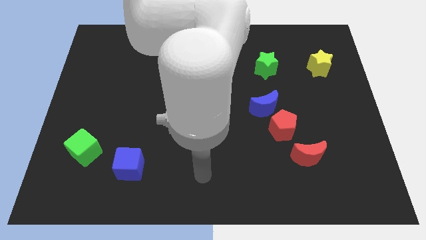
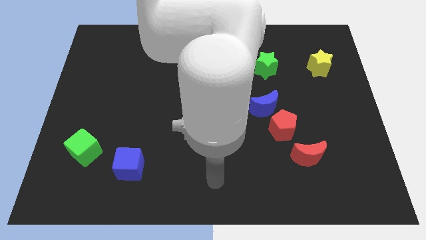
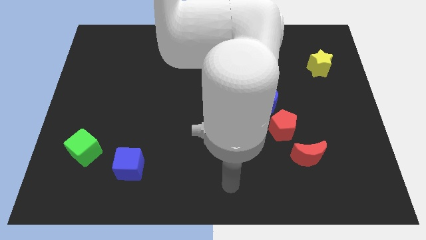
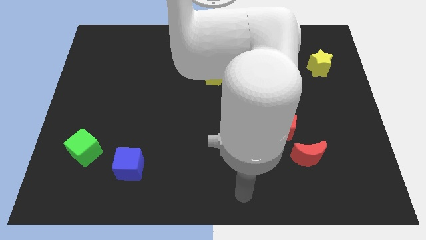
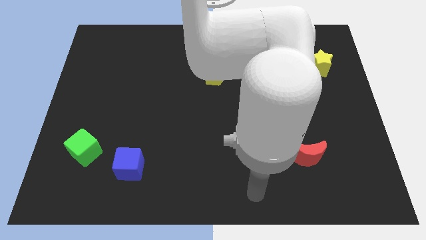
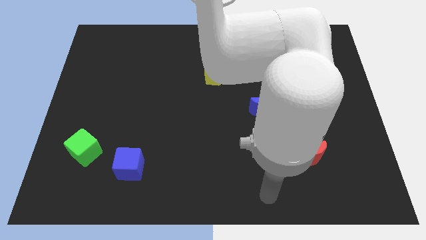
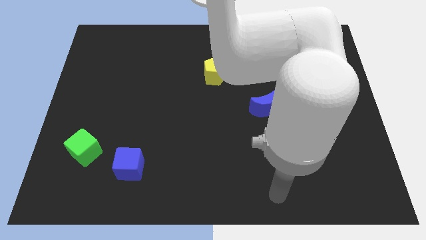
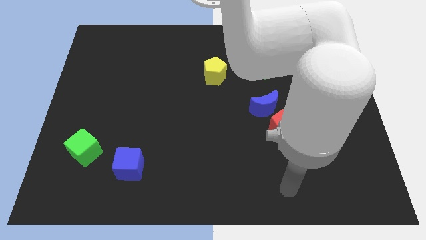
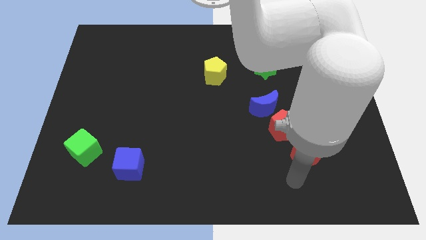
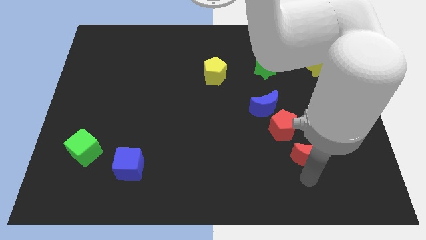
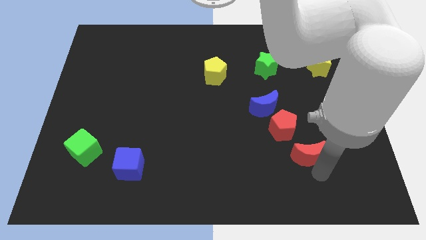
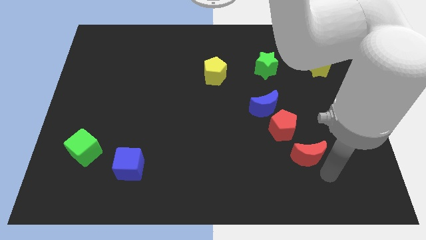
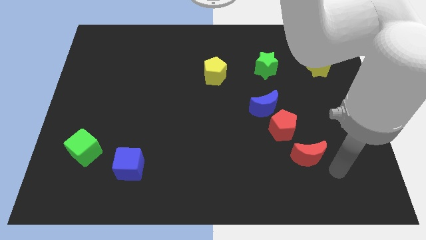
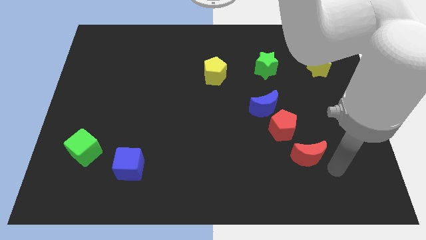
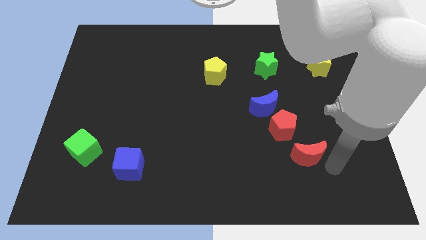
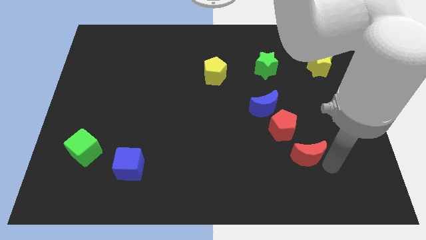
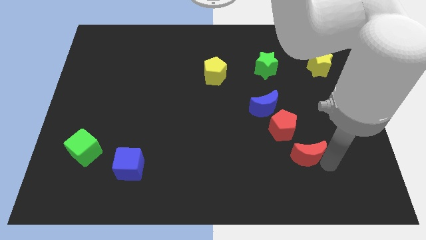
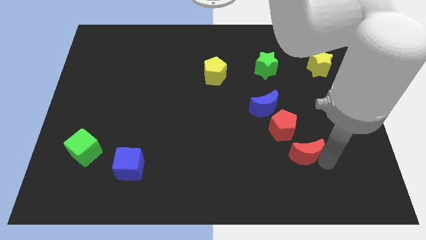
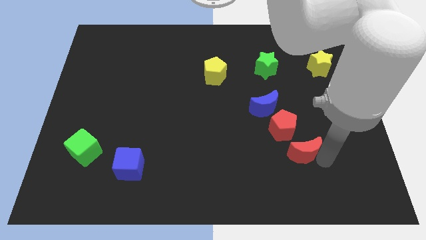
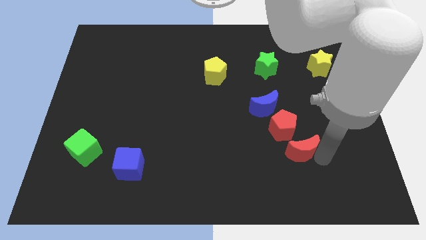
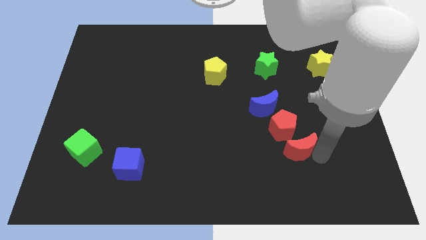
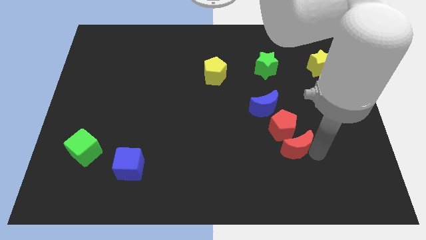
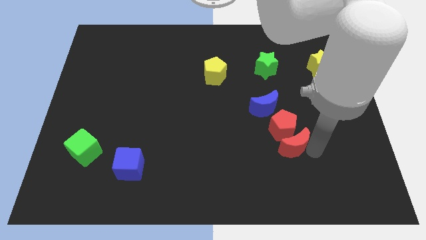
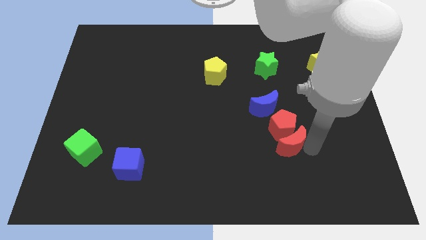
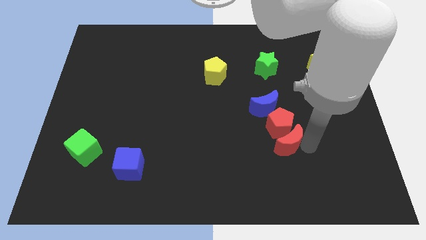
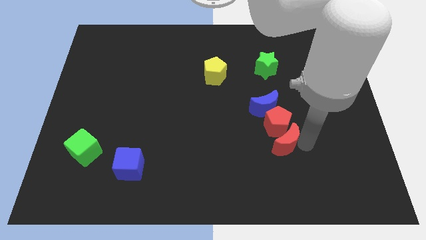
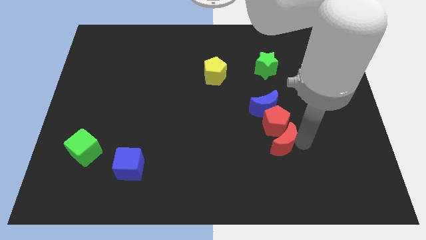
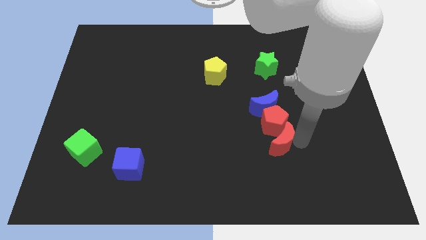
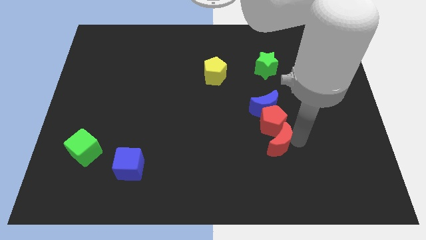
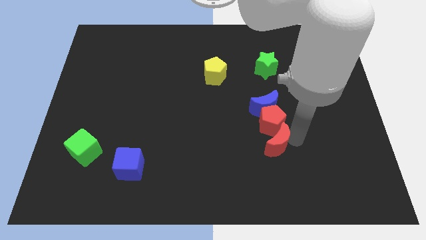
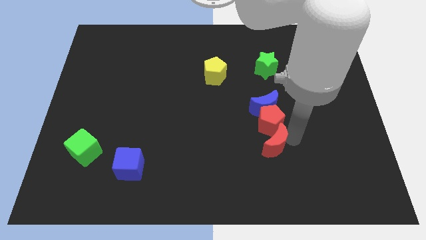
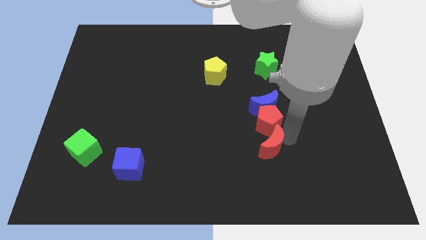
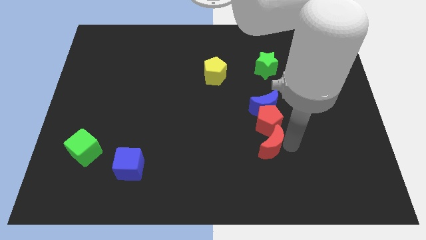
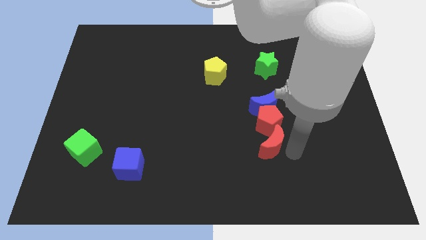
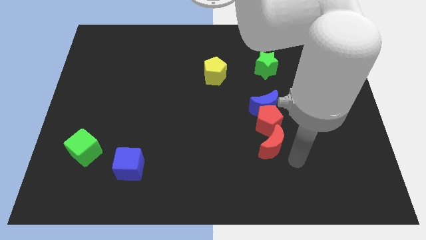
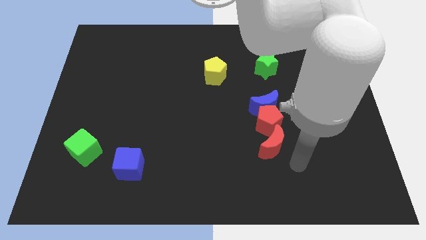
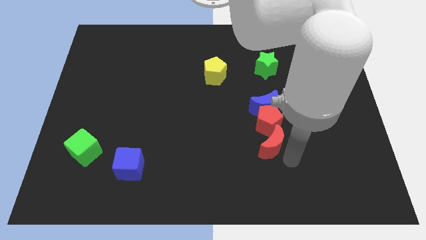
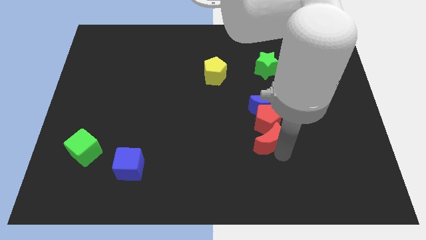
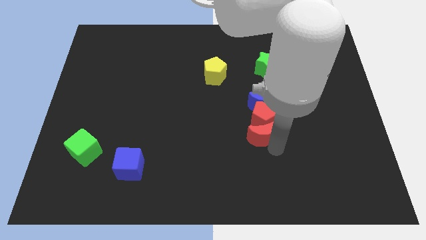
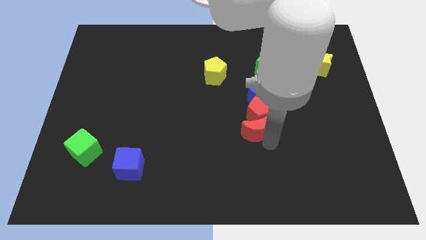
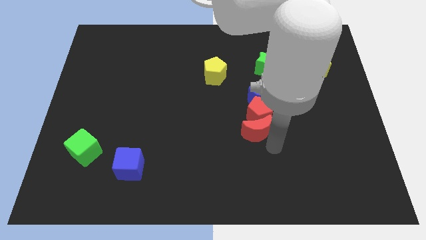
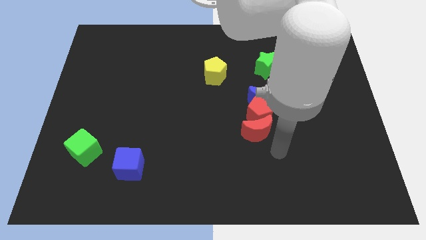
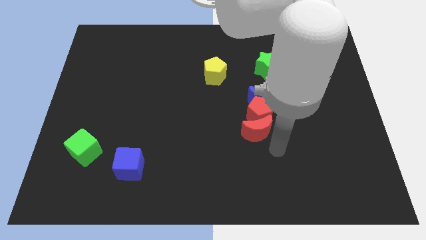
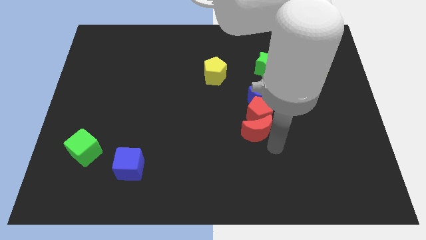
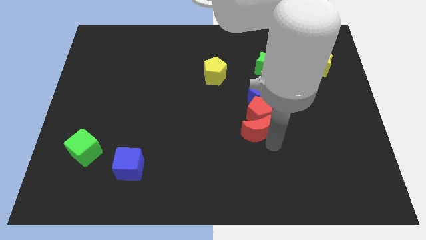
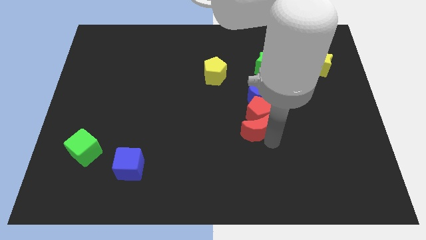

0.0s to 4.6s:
slide the red moon diagonally down and to the left of the blue moon

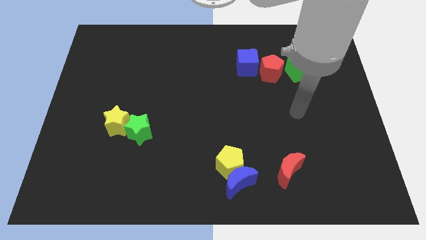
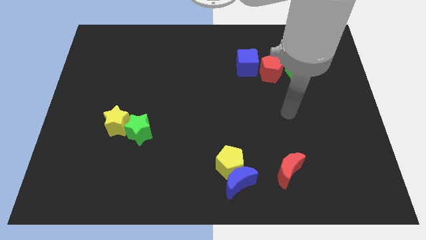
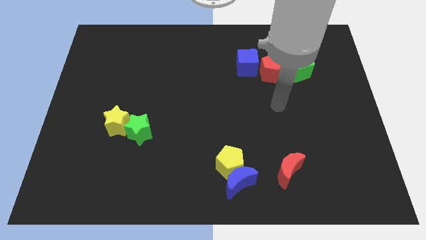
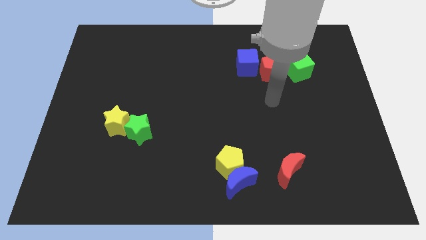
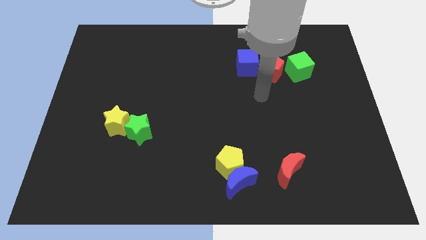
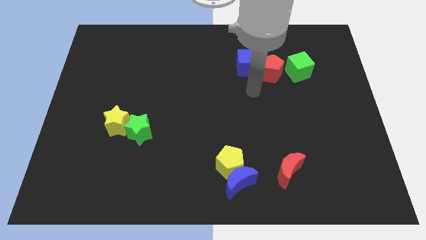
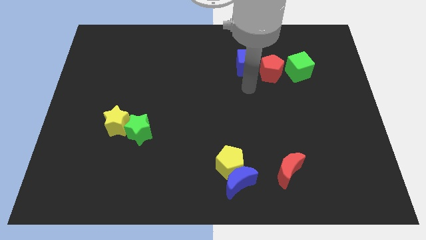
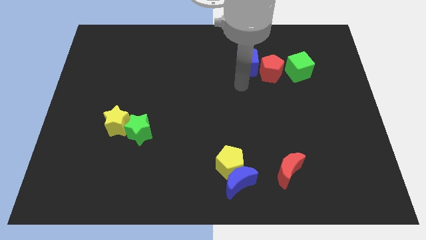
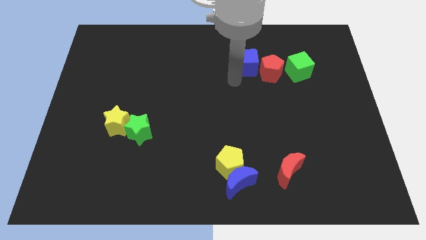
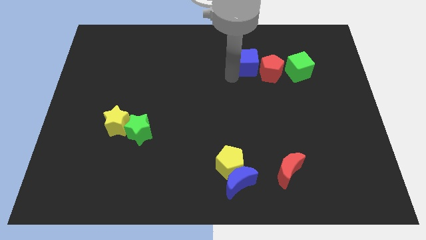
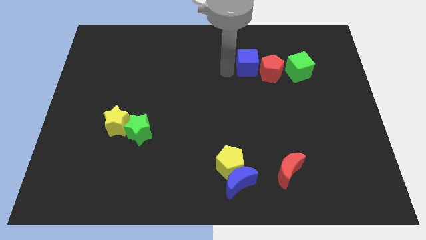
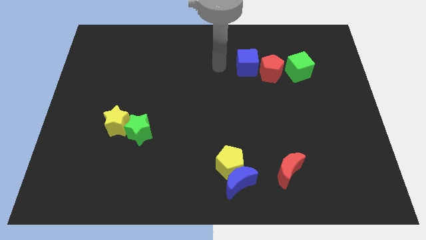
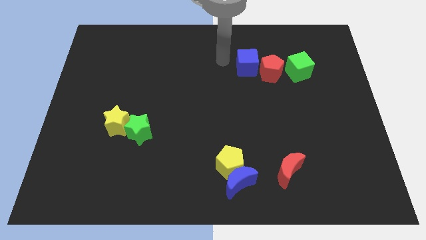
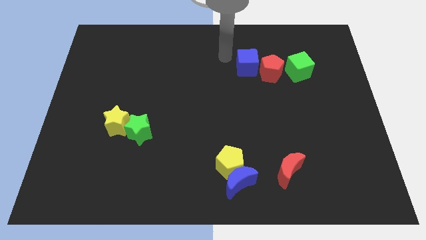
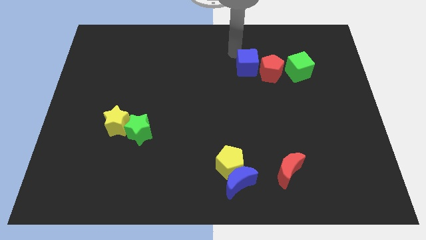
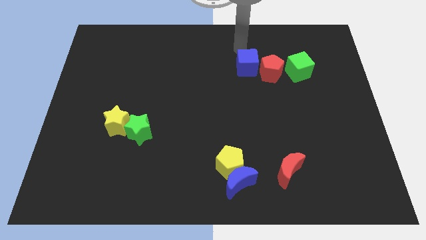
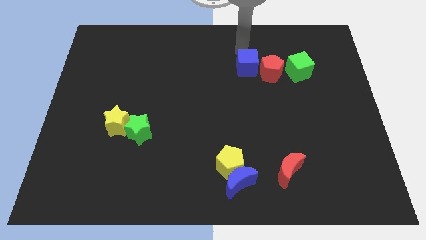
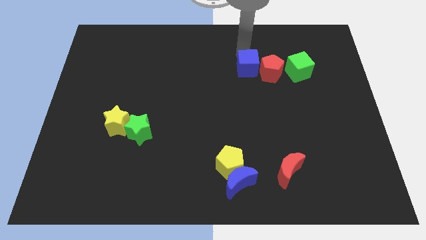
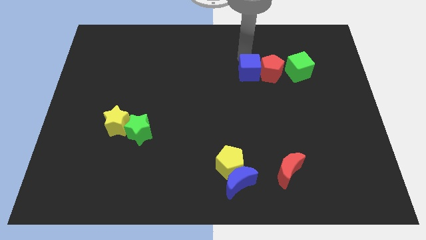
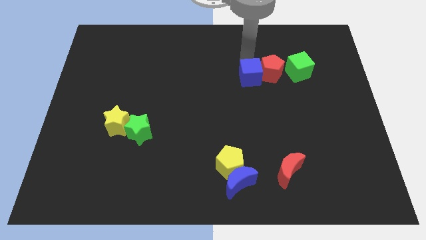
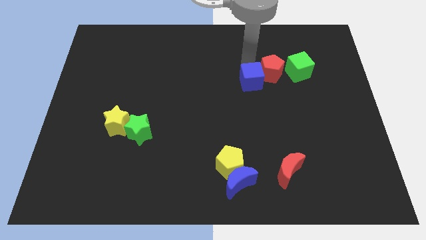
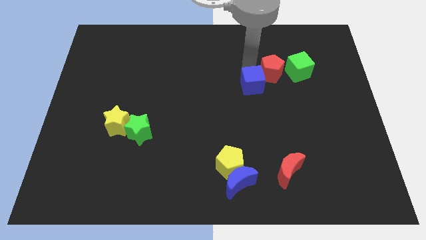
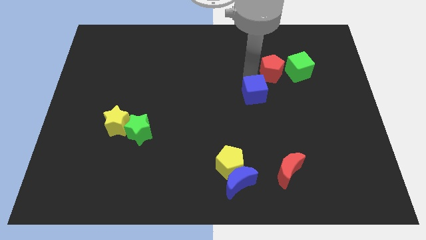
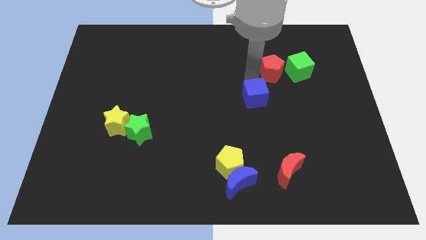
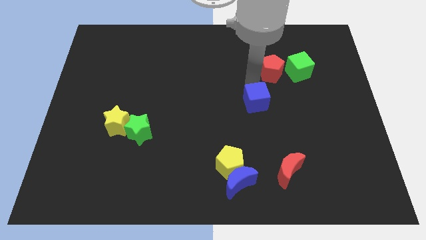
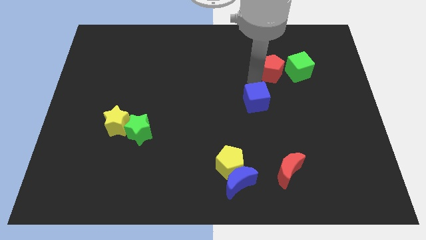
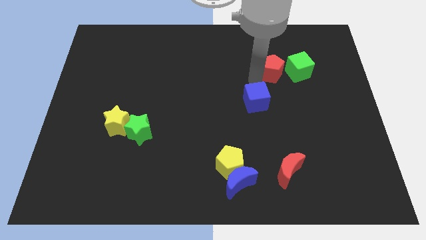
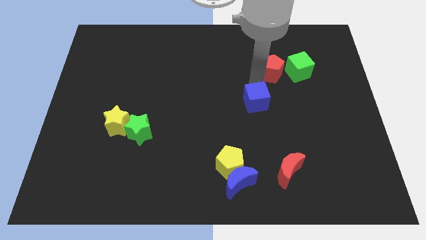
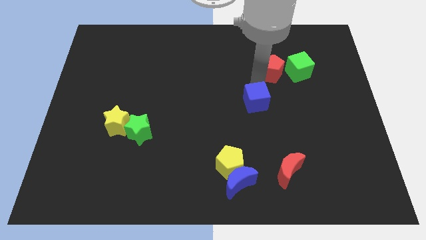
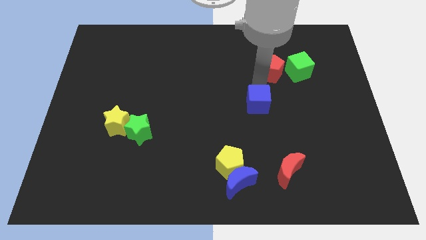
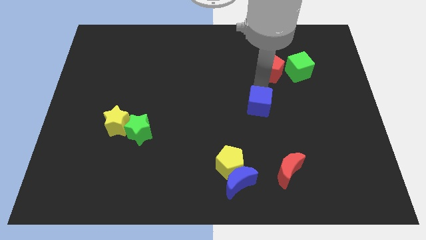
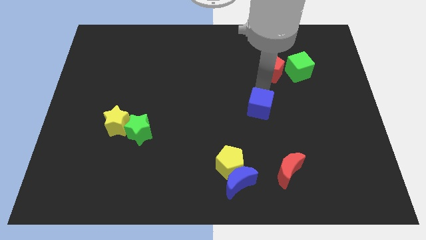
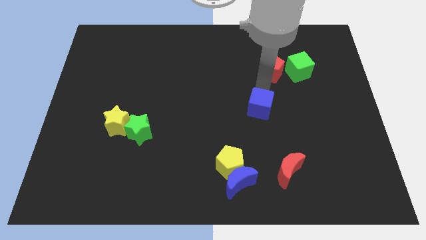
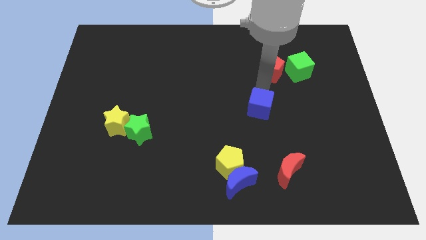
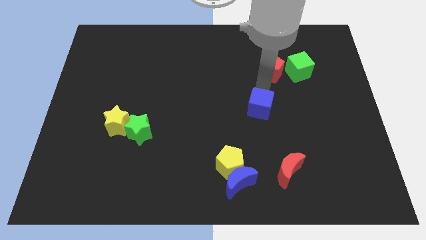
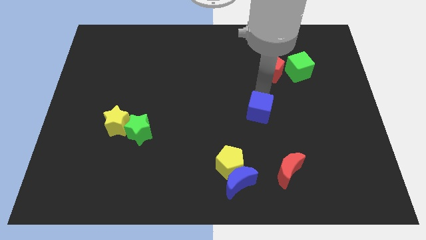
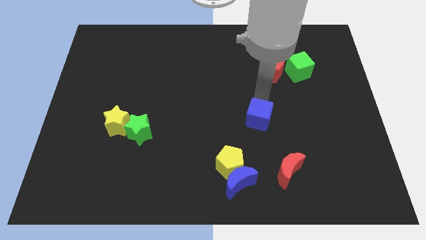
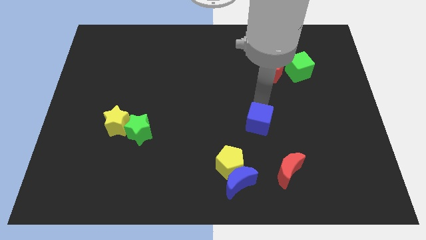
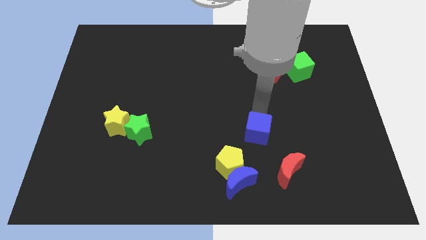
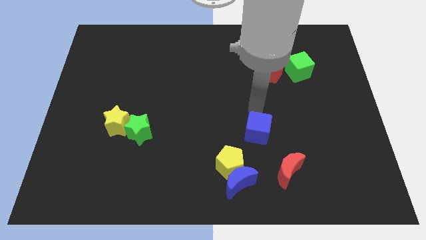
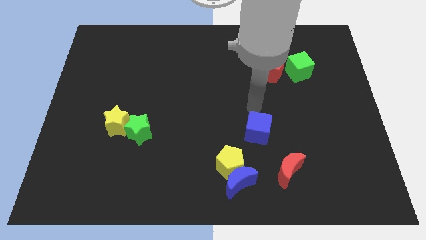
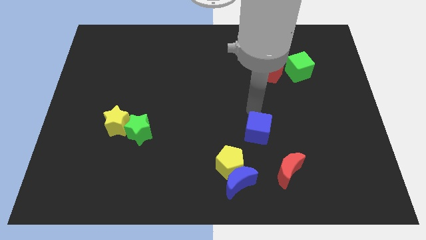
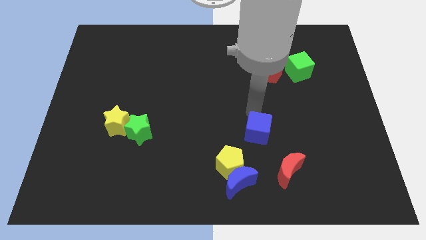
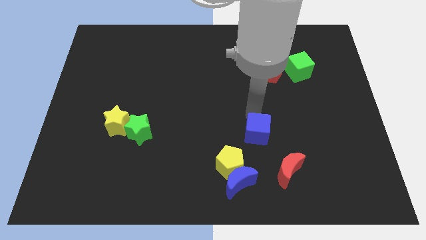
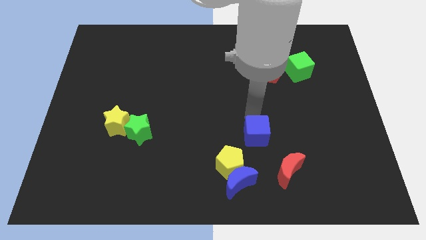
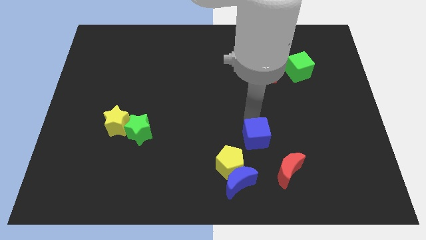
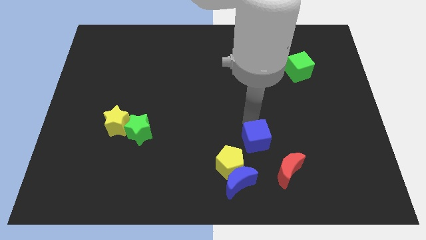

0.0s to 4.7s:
put the blue cube diagonally up and to the right of the blue moon
